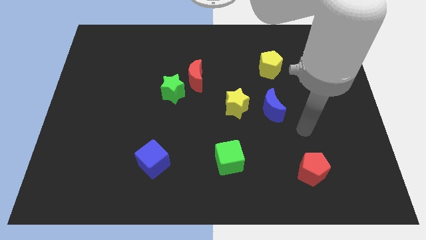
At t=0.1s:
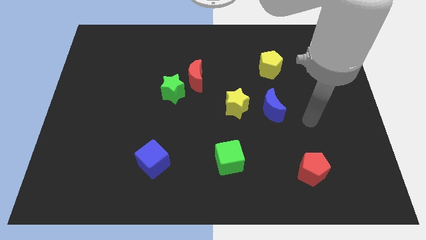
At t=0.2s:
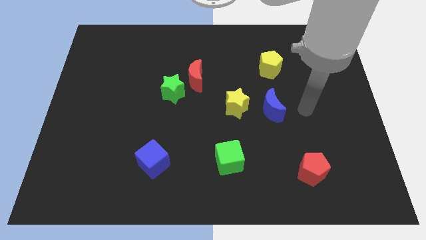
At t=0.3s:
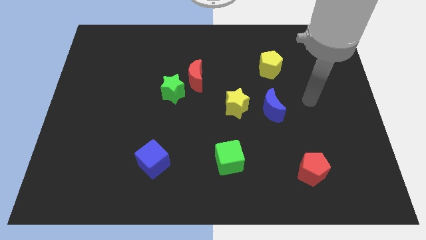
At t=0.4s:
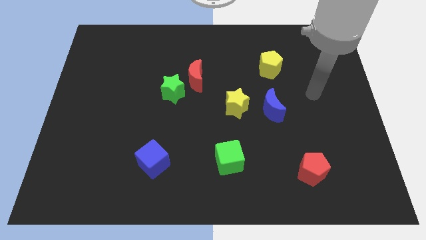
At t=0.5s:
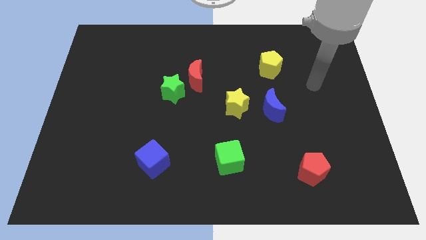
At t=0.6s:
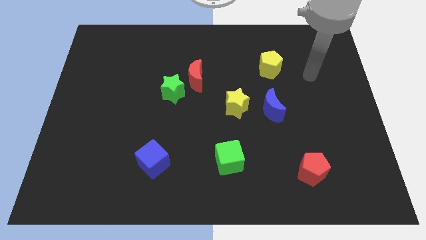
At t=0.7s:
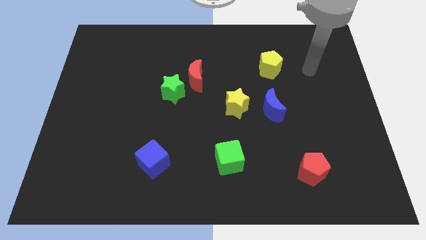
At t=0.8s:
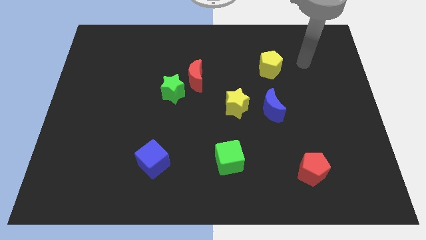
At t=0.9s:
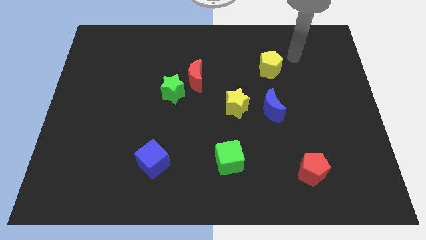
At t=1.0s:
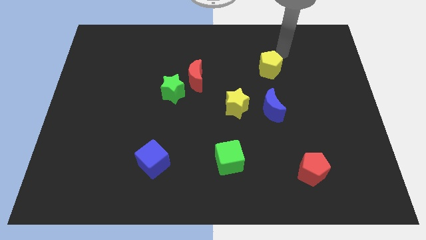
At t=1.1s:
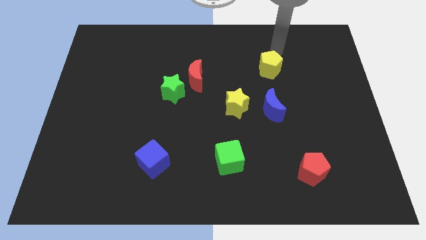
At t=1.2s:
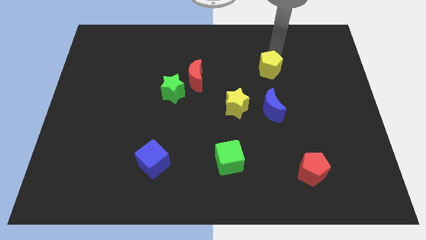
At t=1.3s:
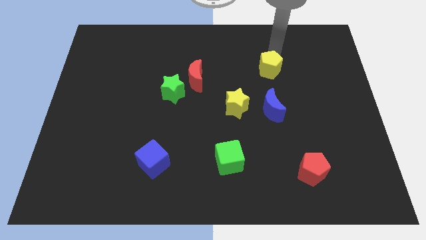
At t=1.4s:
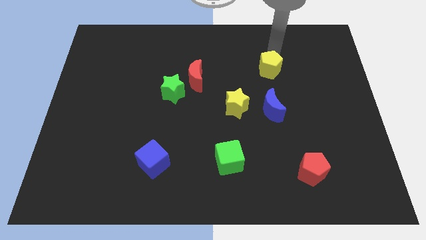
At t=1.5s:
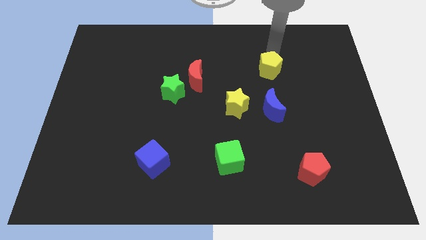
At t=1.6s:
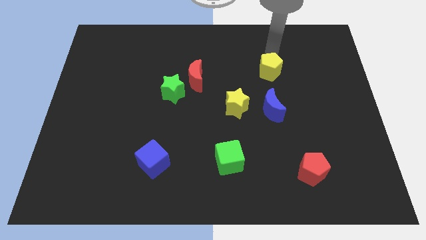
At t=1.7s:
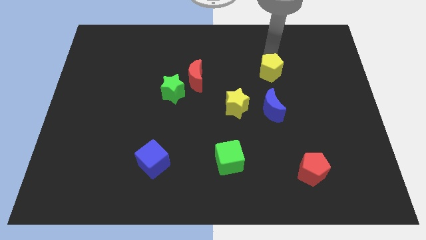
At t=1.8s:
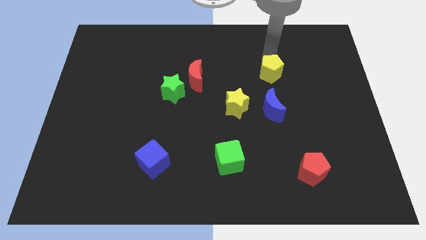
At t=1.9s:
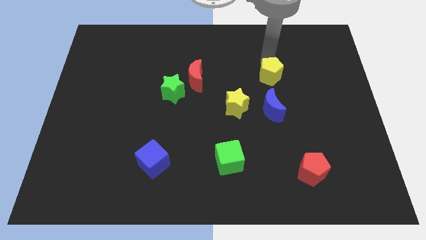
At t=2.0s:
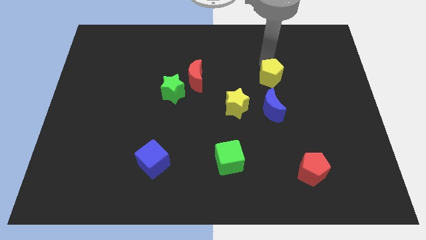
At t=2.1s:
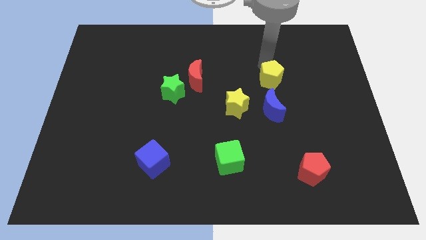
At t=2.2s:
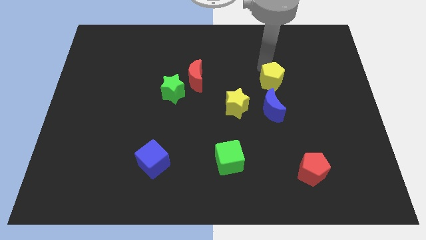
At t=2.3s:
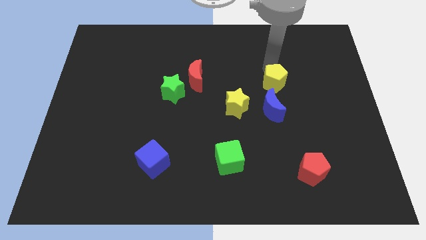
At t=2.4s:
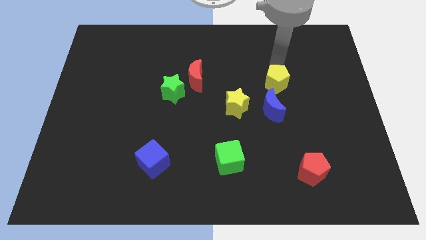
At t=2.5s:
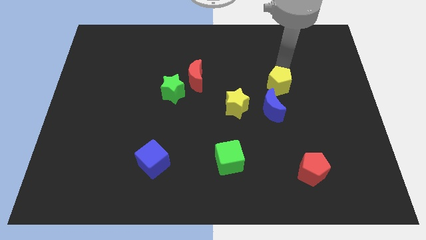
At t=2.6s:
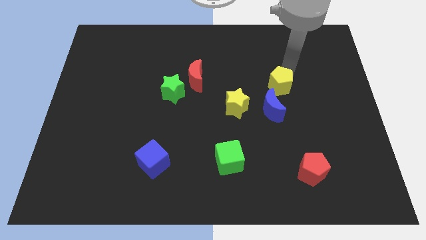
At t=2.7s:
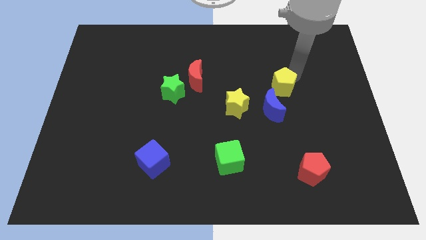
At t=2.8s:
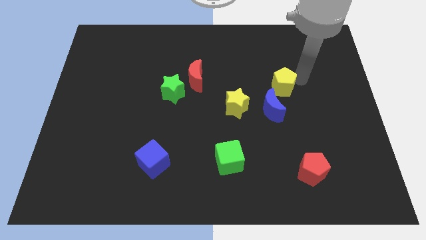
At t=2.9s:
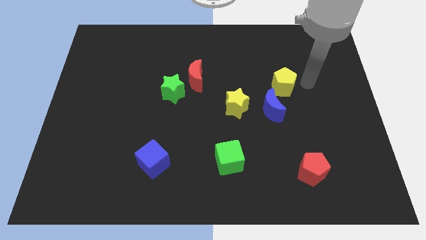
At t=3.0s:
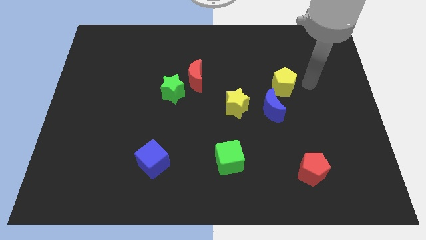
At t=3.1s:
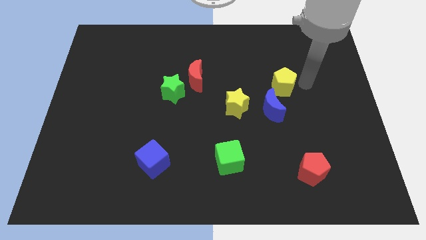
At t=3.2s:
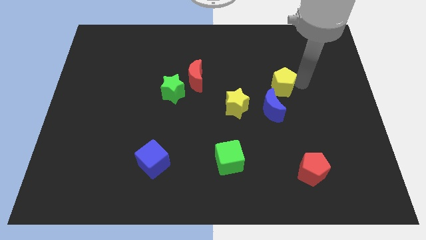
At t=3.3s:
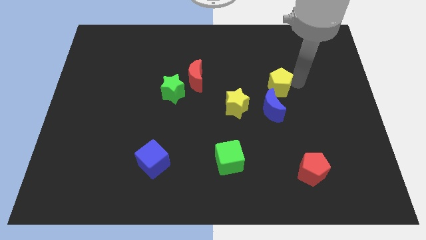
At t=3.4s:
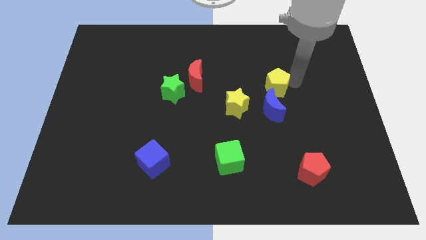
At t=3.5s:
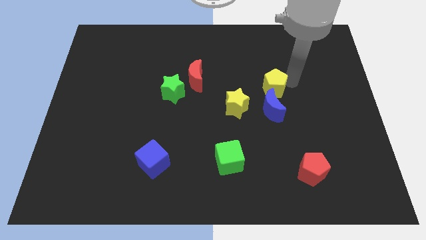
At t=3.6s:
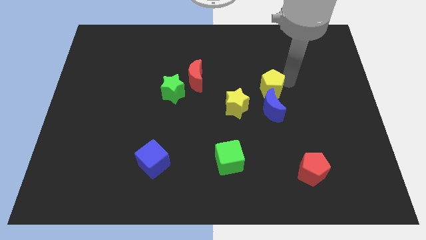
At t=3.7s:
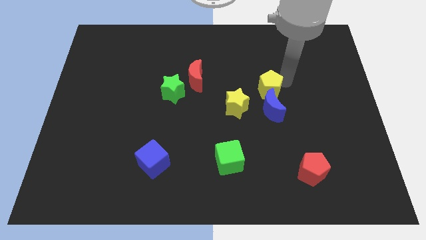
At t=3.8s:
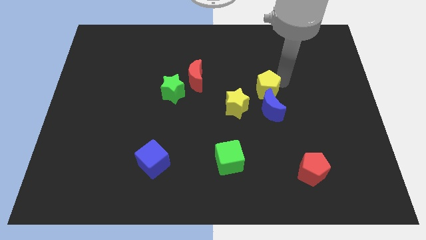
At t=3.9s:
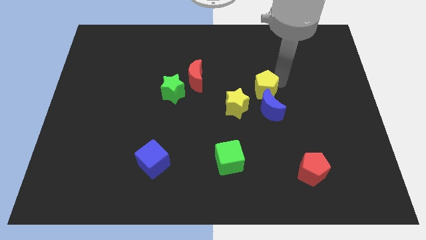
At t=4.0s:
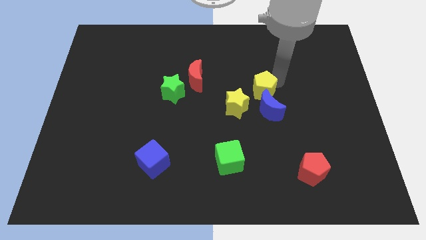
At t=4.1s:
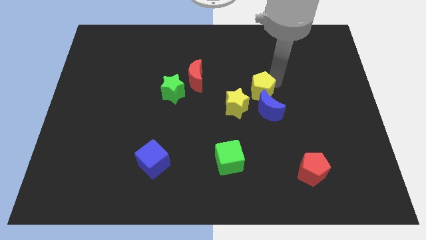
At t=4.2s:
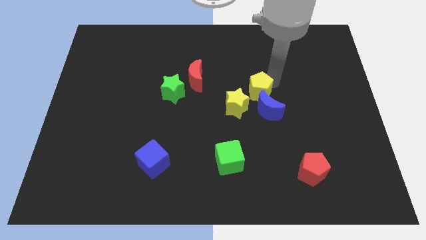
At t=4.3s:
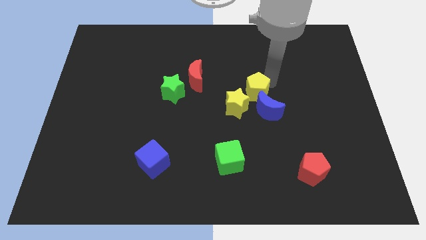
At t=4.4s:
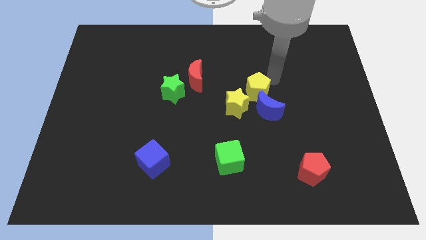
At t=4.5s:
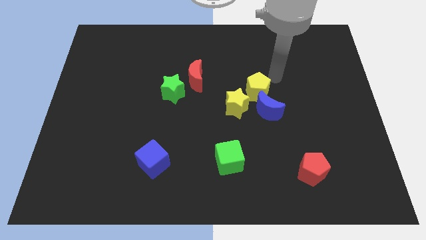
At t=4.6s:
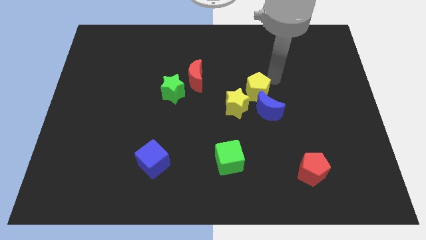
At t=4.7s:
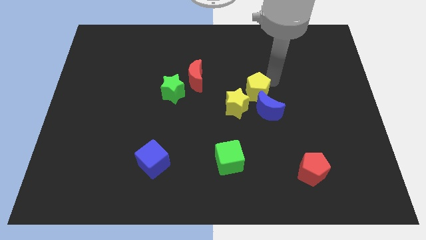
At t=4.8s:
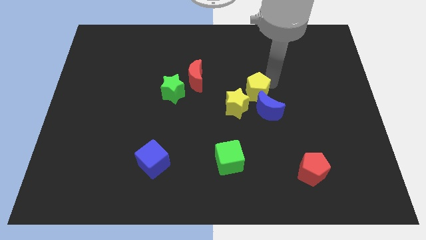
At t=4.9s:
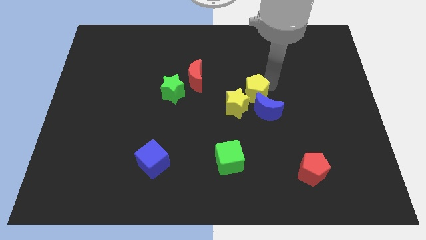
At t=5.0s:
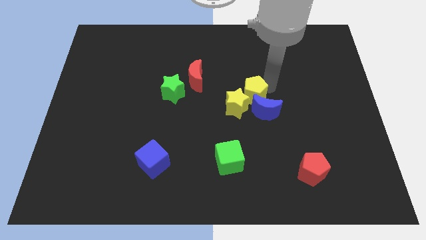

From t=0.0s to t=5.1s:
slide the yellow pentagon towards the yellow star

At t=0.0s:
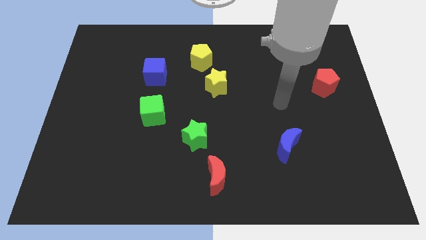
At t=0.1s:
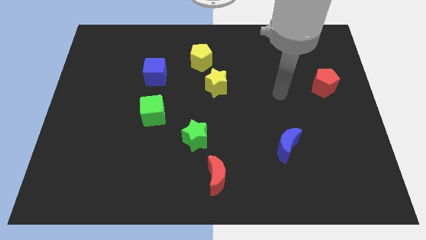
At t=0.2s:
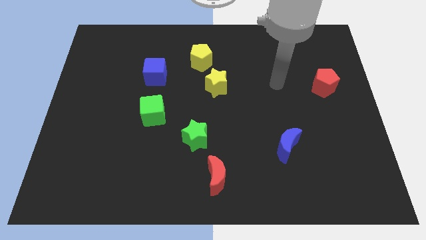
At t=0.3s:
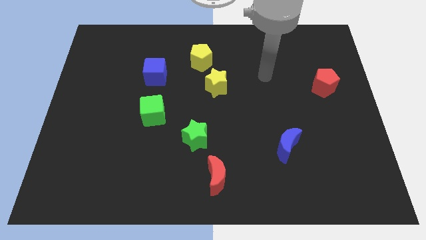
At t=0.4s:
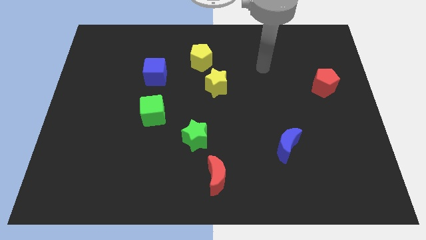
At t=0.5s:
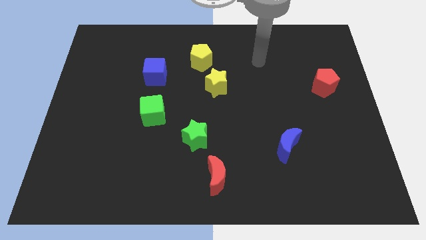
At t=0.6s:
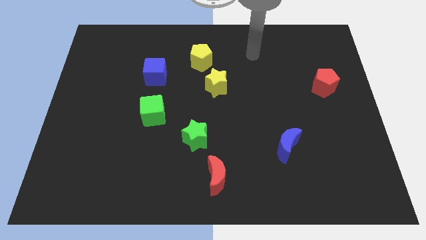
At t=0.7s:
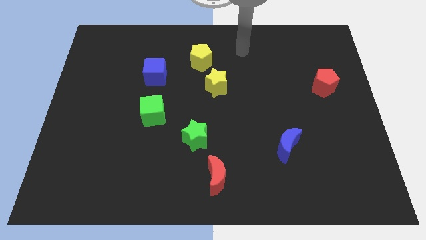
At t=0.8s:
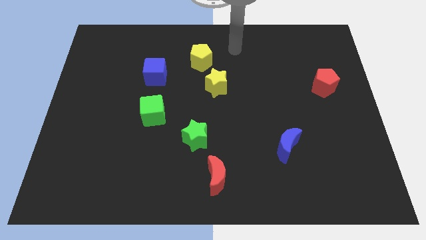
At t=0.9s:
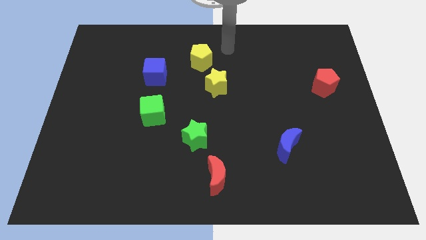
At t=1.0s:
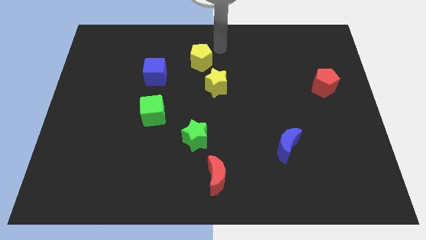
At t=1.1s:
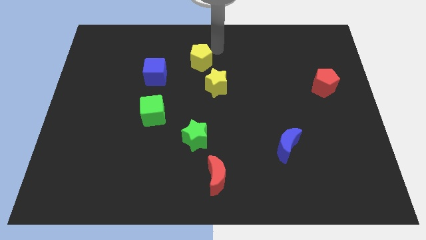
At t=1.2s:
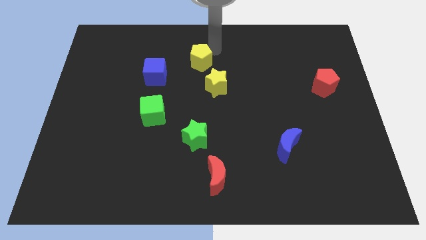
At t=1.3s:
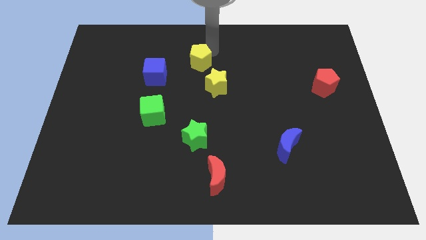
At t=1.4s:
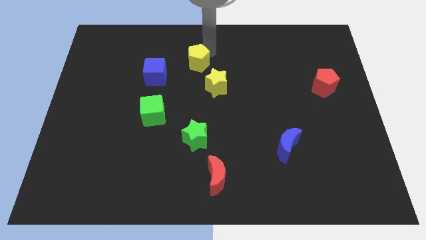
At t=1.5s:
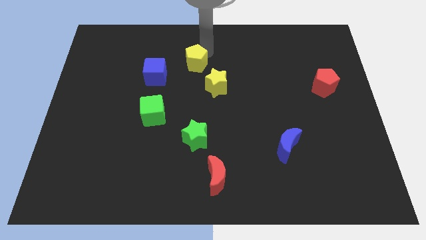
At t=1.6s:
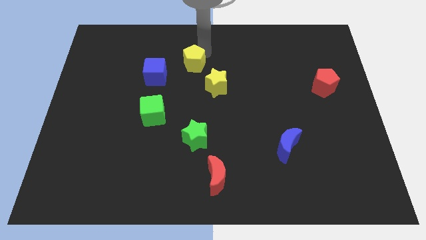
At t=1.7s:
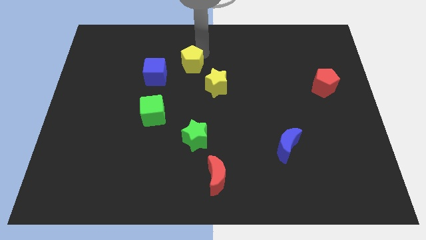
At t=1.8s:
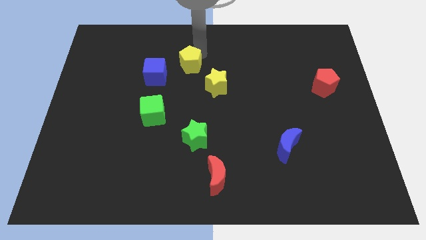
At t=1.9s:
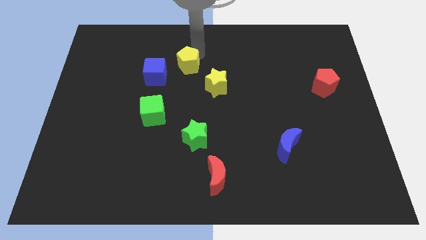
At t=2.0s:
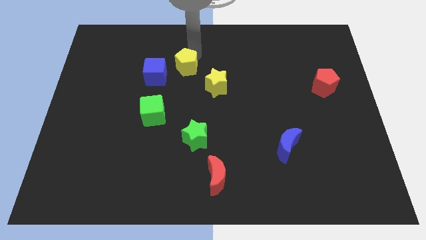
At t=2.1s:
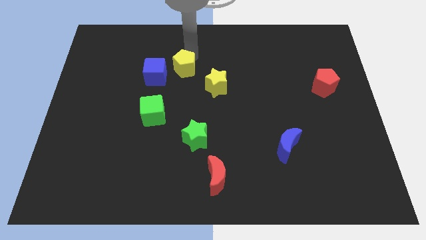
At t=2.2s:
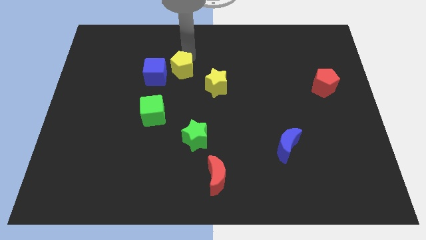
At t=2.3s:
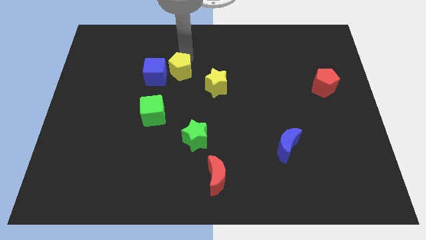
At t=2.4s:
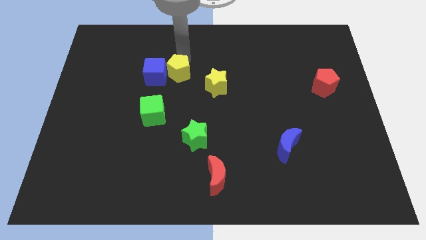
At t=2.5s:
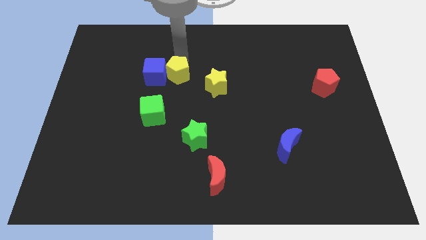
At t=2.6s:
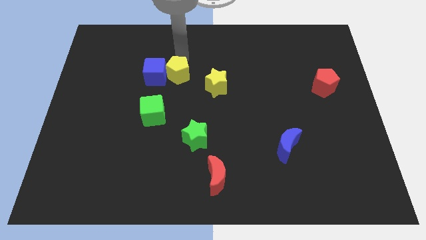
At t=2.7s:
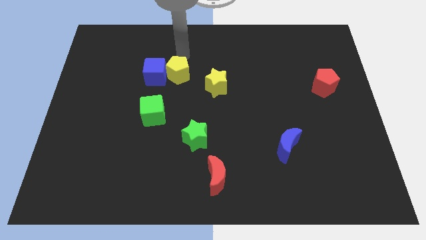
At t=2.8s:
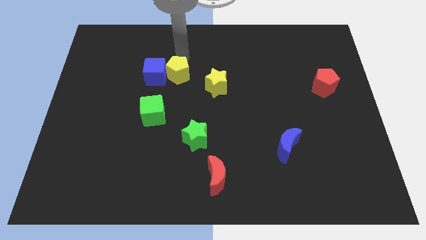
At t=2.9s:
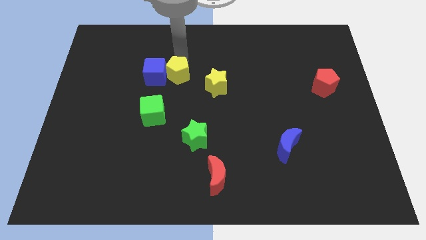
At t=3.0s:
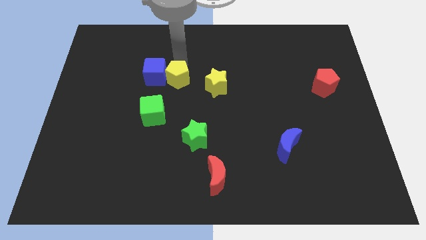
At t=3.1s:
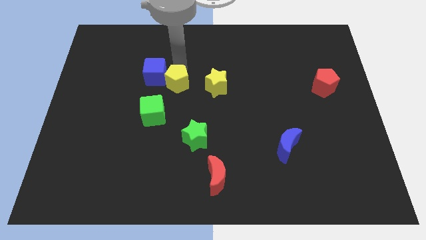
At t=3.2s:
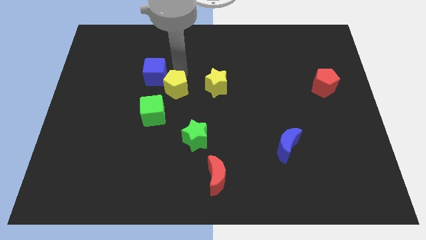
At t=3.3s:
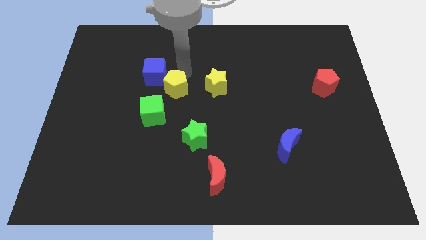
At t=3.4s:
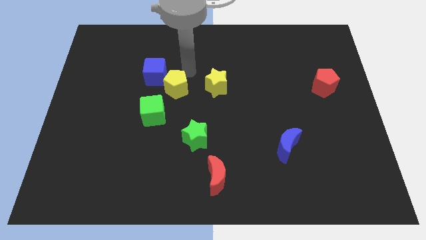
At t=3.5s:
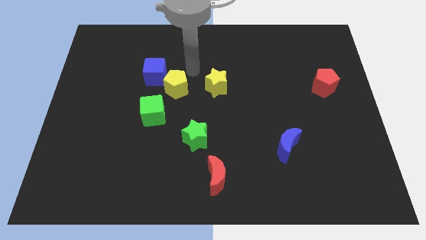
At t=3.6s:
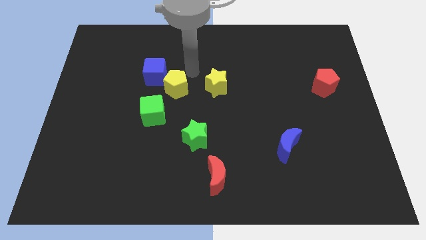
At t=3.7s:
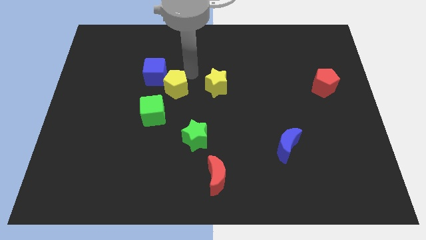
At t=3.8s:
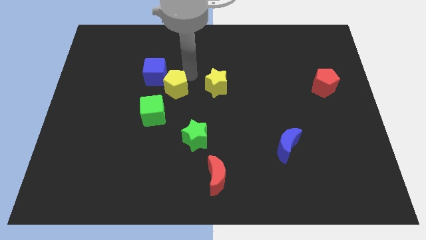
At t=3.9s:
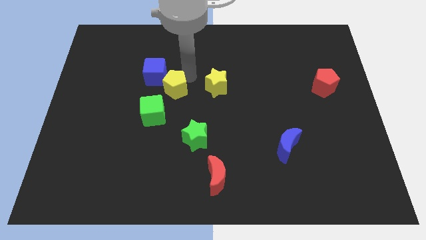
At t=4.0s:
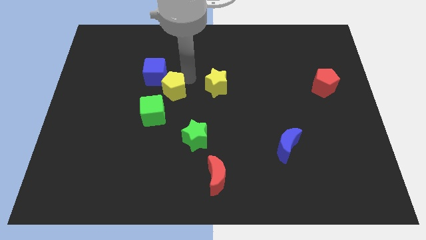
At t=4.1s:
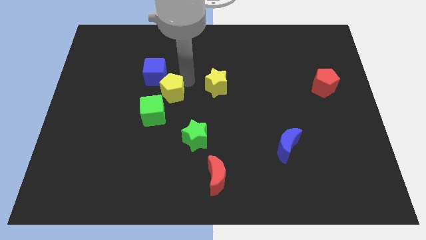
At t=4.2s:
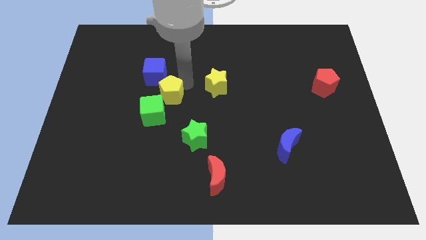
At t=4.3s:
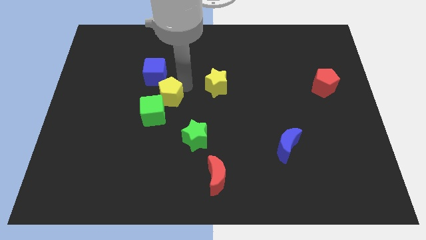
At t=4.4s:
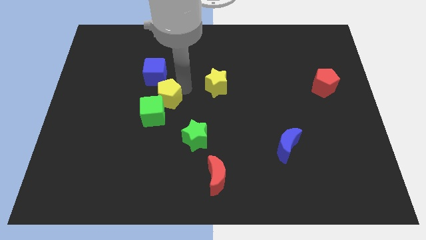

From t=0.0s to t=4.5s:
move the yellow pentagon next to the green cube
